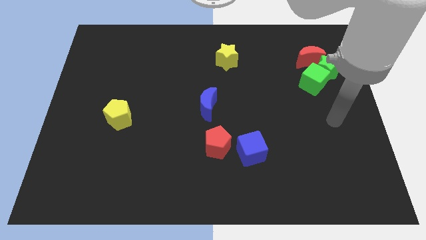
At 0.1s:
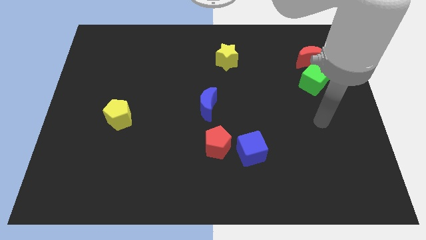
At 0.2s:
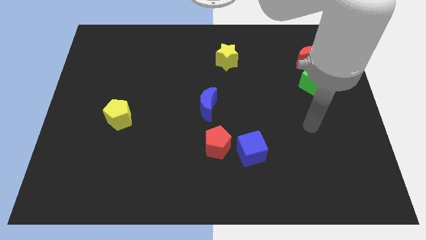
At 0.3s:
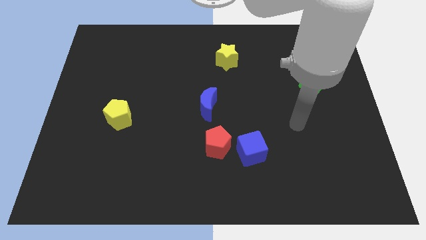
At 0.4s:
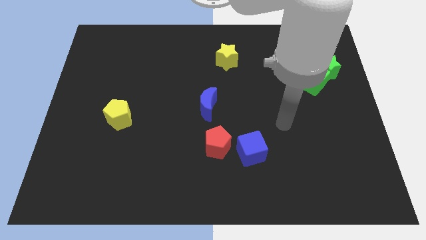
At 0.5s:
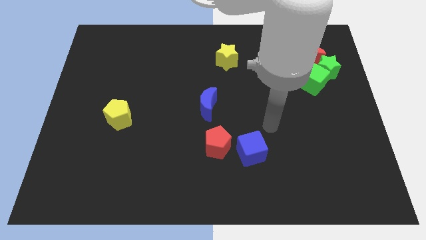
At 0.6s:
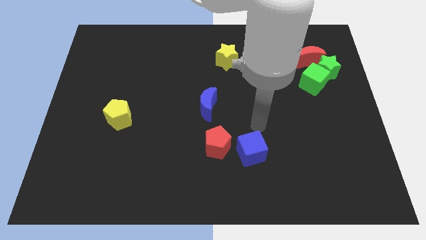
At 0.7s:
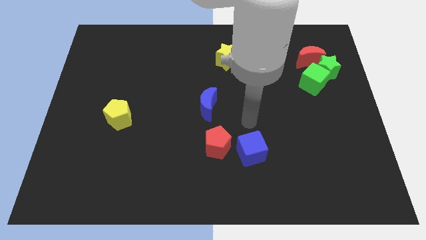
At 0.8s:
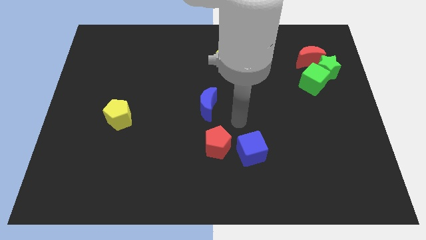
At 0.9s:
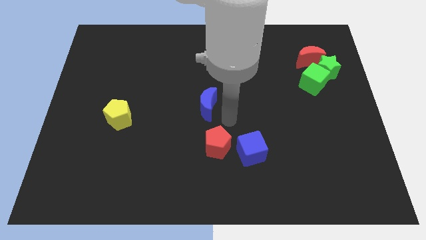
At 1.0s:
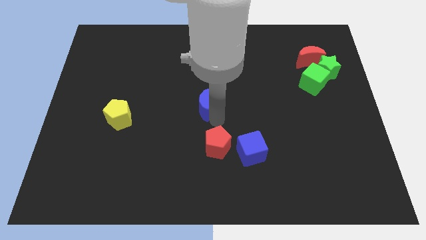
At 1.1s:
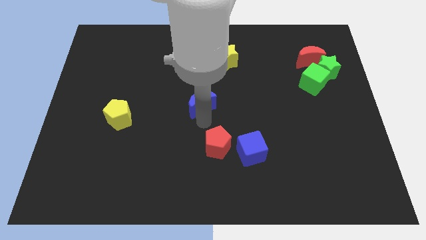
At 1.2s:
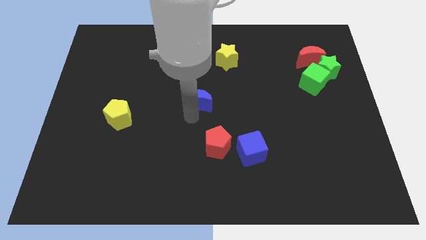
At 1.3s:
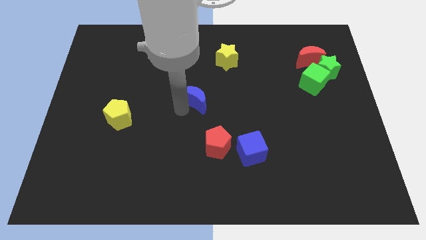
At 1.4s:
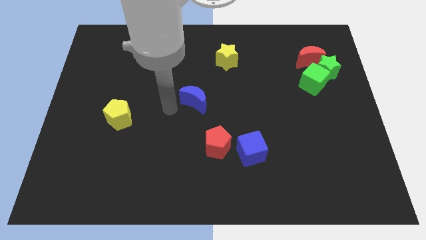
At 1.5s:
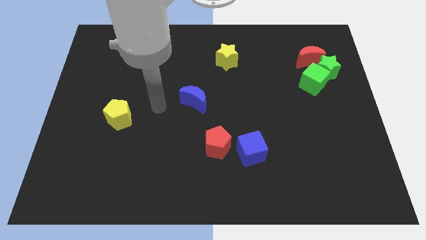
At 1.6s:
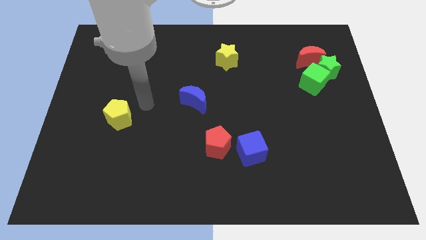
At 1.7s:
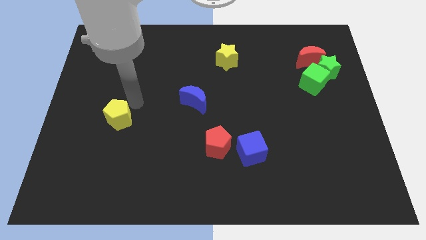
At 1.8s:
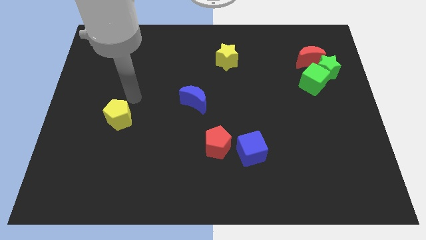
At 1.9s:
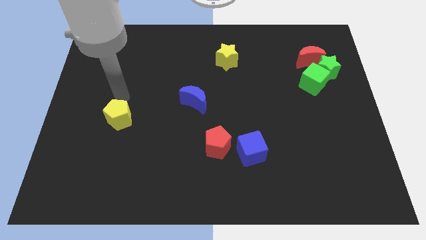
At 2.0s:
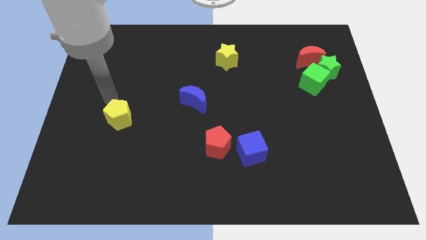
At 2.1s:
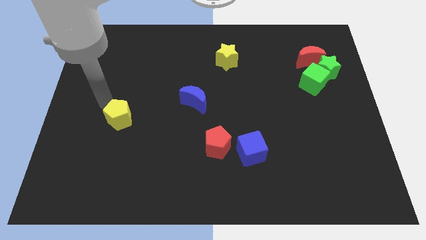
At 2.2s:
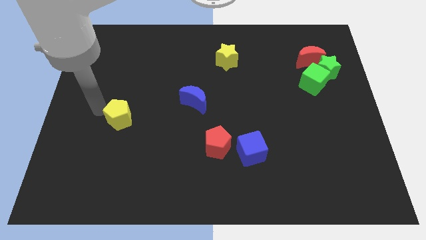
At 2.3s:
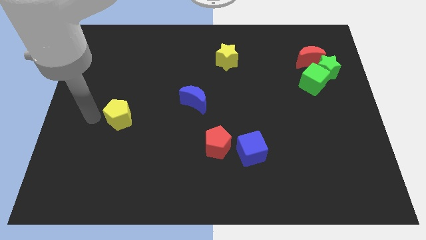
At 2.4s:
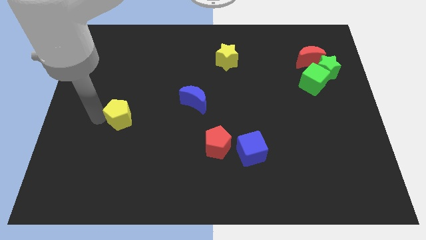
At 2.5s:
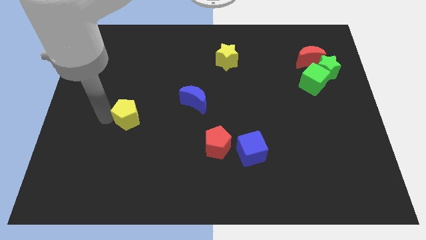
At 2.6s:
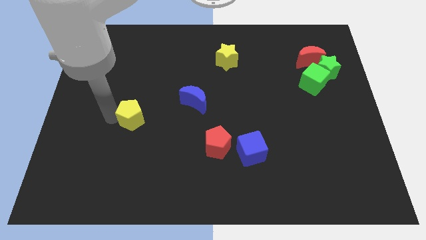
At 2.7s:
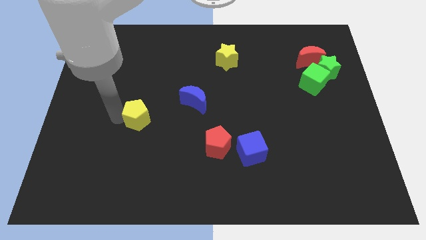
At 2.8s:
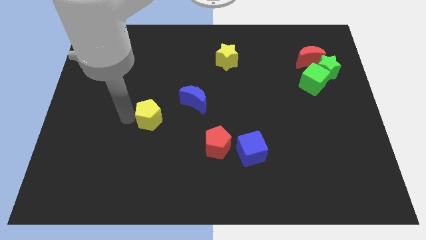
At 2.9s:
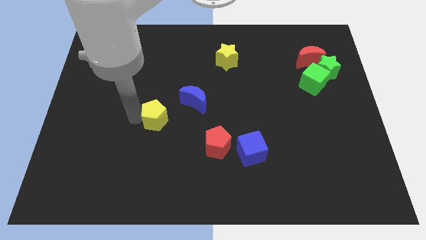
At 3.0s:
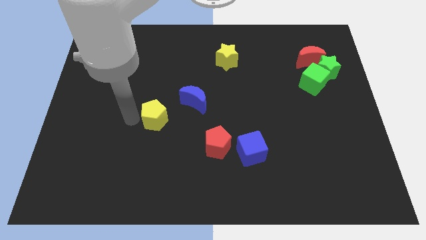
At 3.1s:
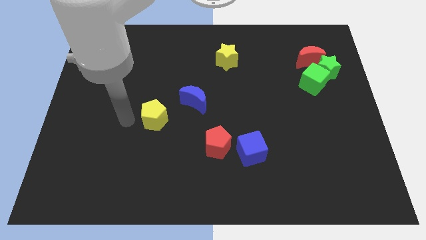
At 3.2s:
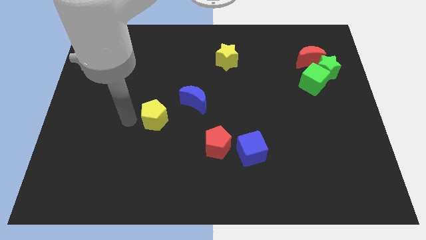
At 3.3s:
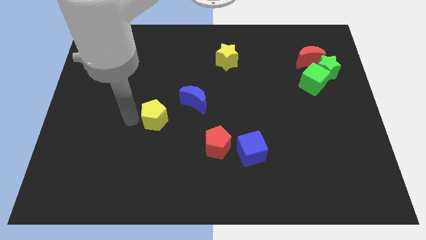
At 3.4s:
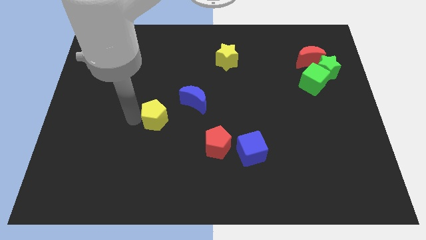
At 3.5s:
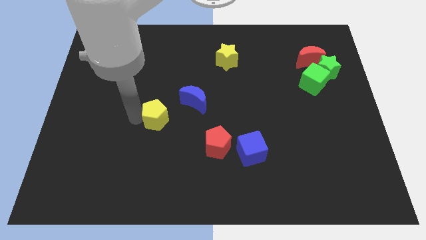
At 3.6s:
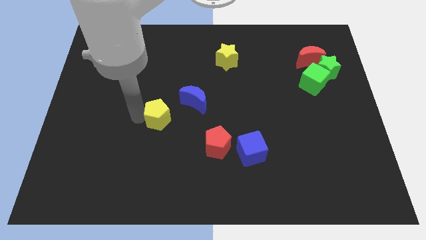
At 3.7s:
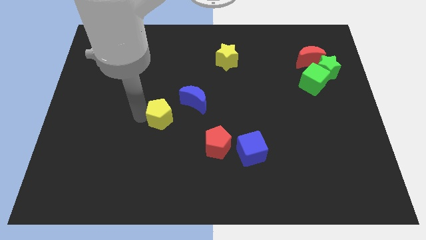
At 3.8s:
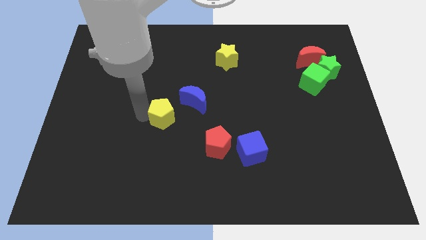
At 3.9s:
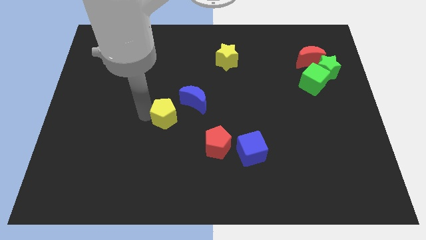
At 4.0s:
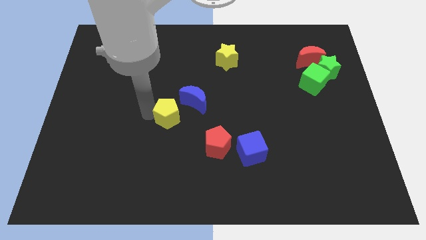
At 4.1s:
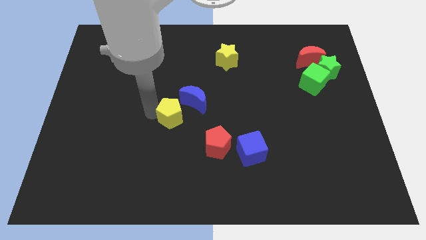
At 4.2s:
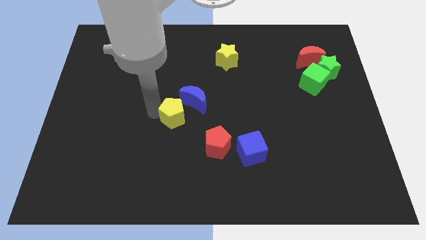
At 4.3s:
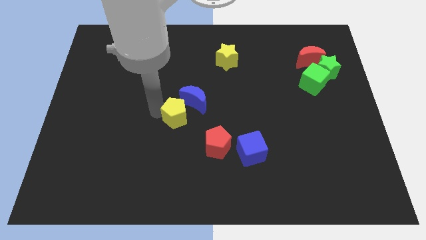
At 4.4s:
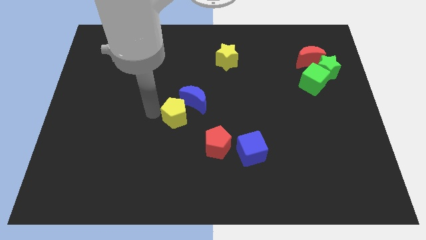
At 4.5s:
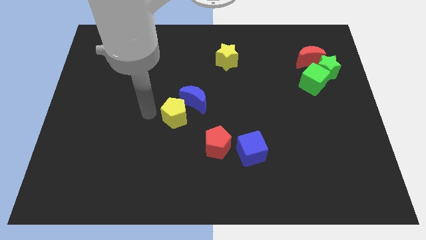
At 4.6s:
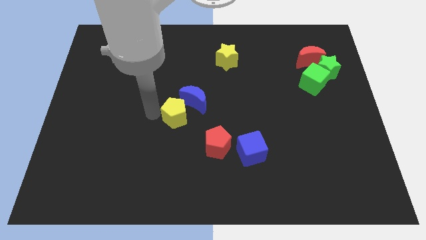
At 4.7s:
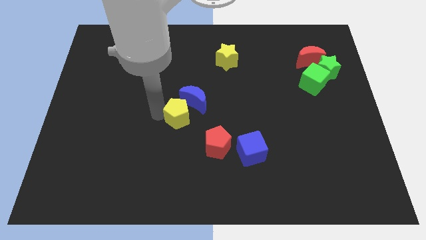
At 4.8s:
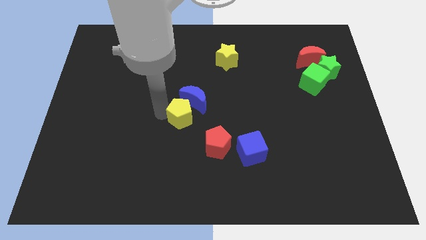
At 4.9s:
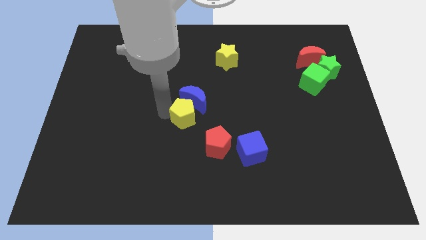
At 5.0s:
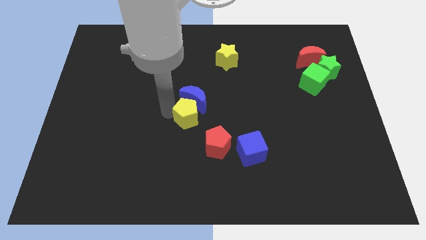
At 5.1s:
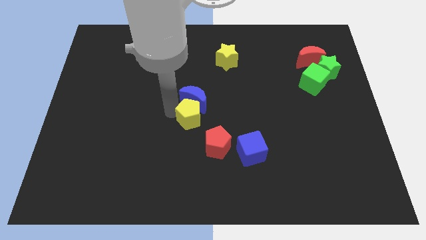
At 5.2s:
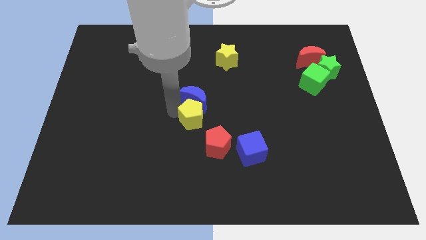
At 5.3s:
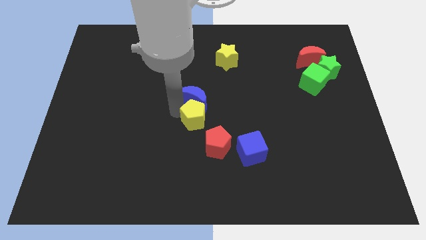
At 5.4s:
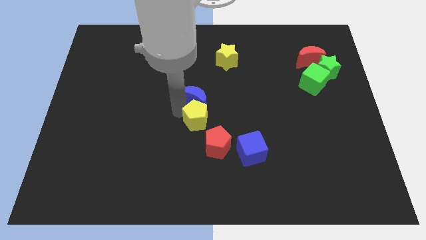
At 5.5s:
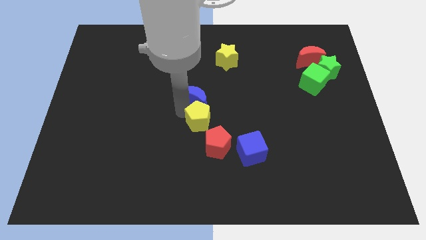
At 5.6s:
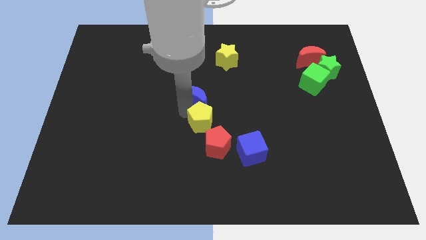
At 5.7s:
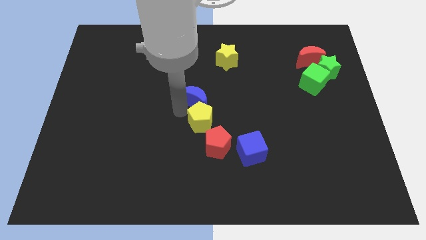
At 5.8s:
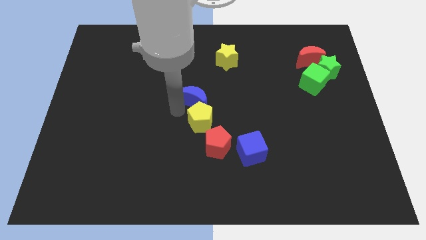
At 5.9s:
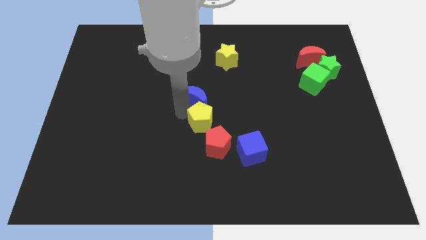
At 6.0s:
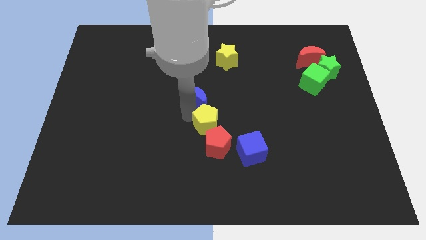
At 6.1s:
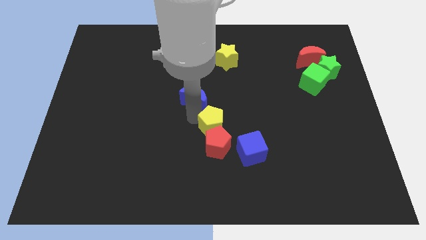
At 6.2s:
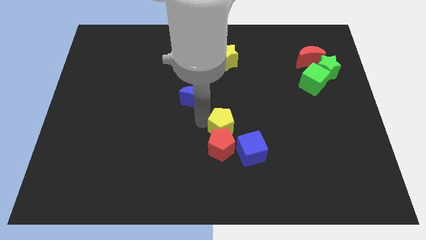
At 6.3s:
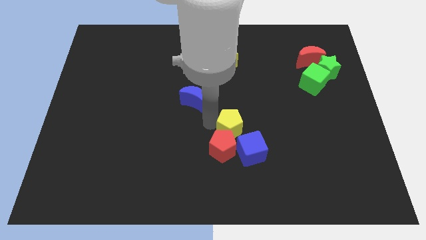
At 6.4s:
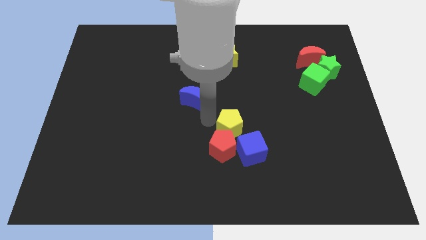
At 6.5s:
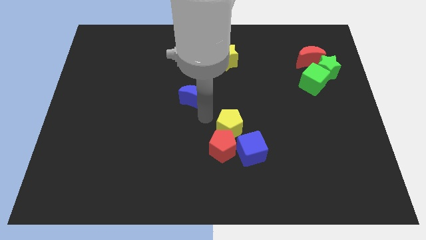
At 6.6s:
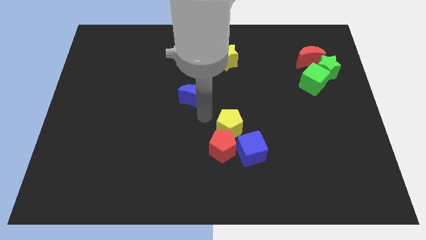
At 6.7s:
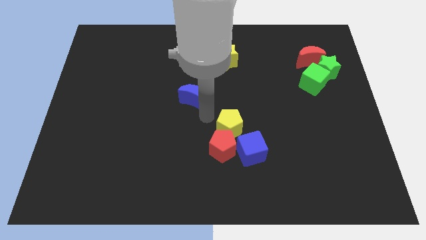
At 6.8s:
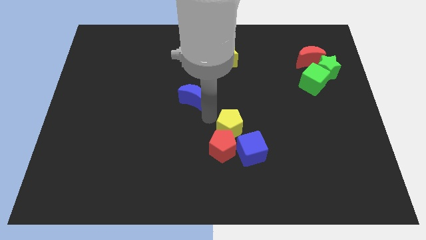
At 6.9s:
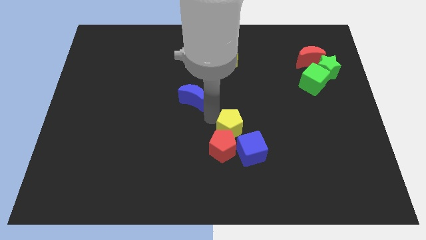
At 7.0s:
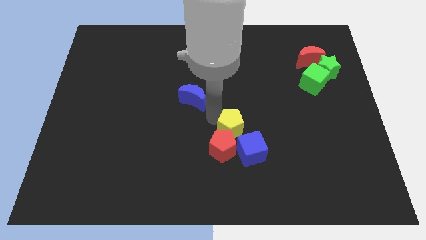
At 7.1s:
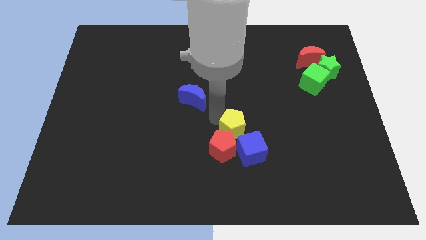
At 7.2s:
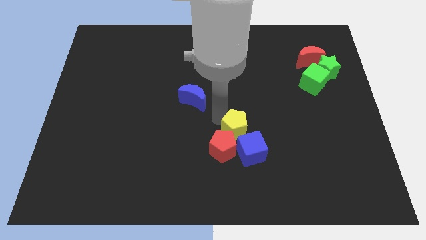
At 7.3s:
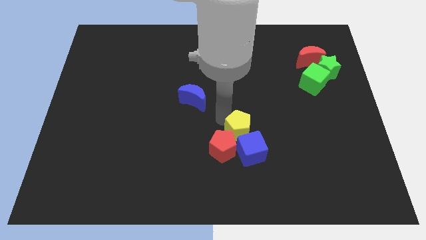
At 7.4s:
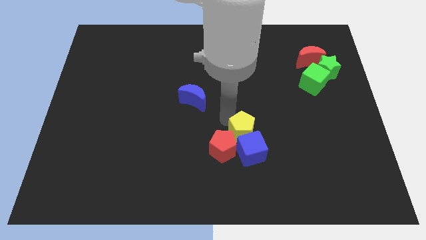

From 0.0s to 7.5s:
push the yellow pentagon to the right of the red pentagon
